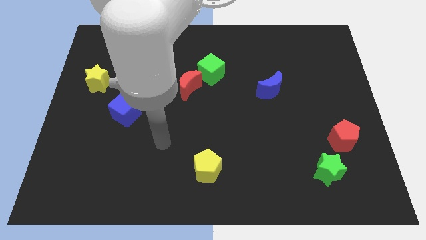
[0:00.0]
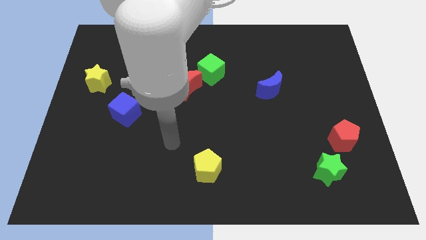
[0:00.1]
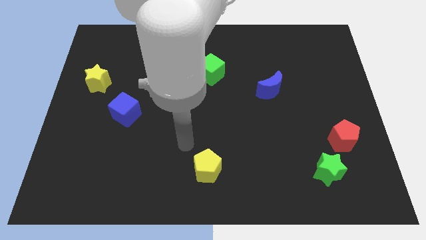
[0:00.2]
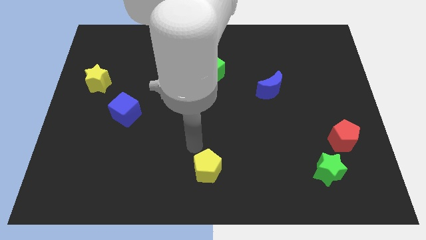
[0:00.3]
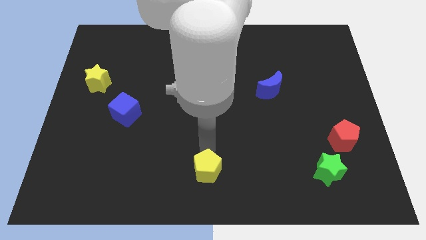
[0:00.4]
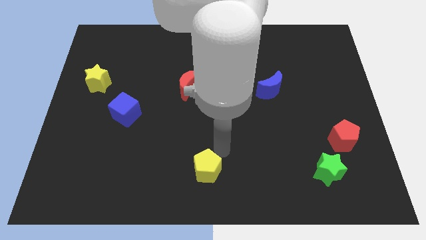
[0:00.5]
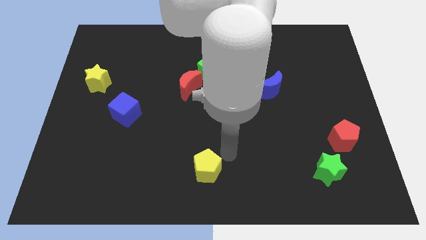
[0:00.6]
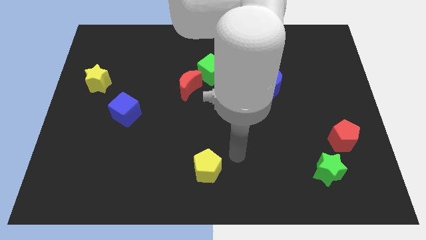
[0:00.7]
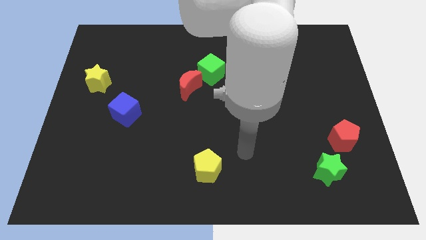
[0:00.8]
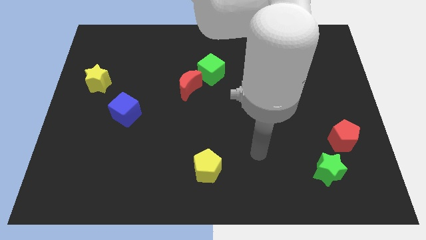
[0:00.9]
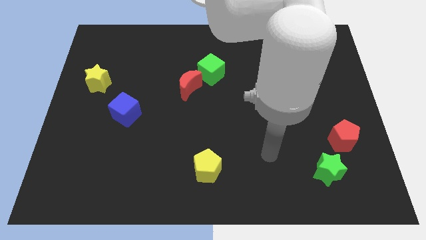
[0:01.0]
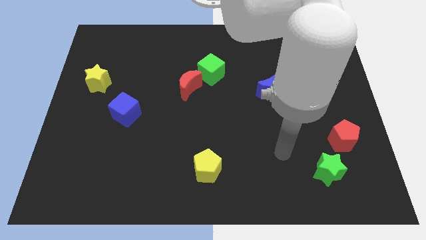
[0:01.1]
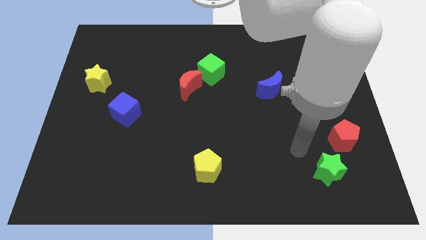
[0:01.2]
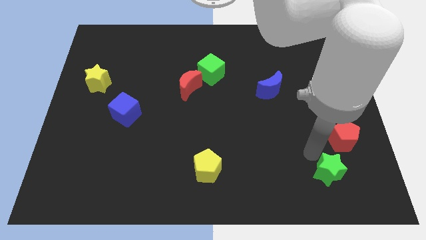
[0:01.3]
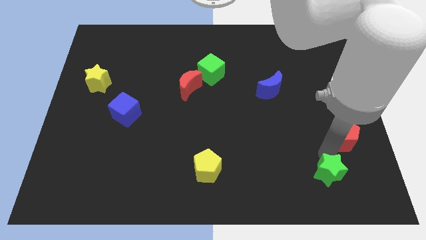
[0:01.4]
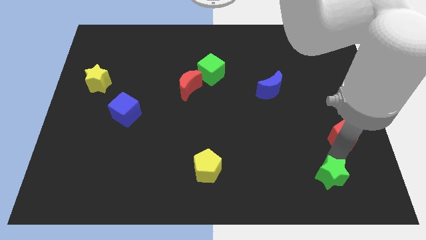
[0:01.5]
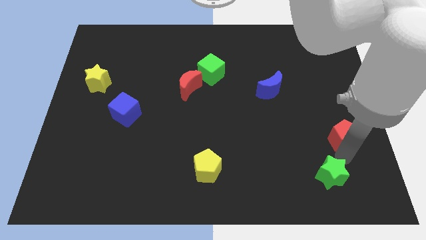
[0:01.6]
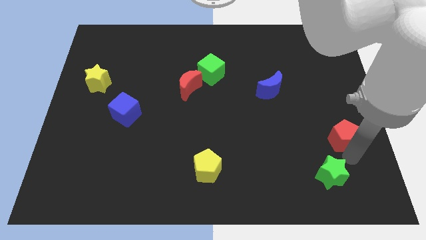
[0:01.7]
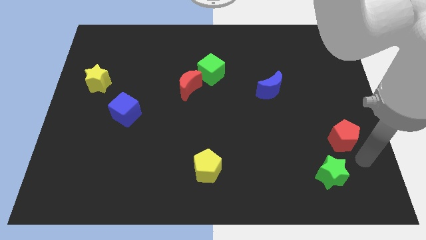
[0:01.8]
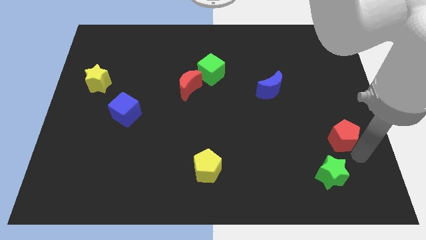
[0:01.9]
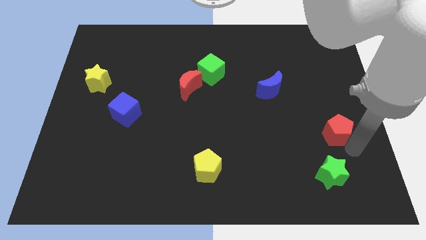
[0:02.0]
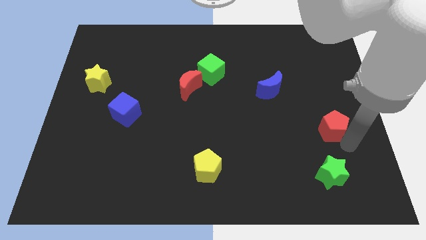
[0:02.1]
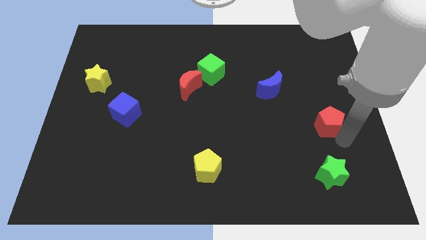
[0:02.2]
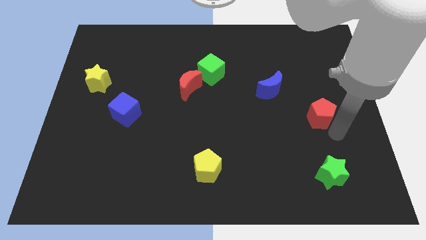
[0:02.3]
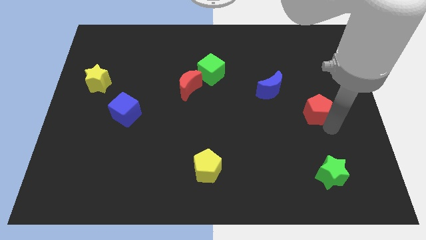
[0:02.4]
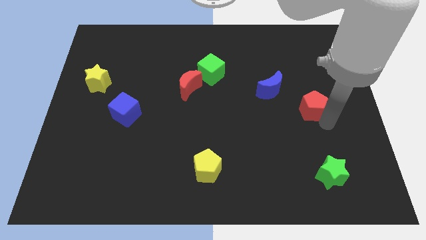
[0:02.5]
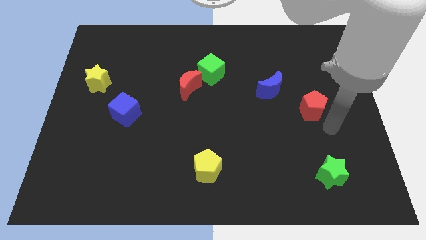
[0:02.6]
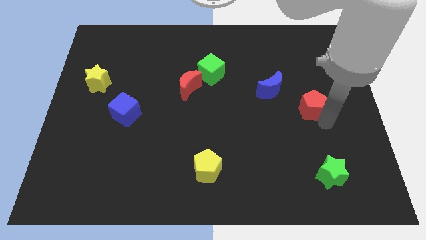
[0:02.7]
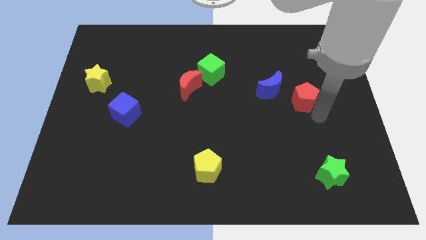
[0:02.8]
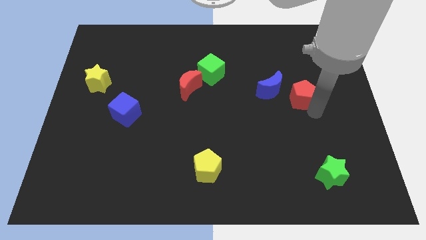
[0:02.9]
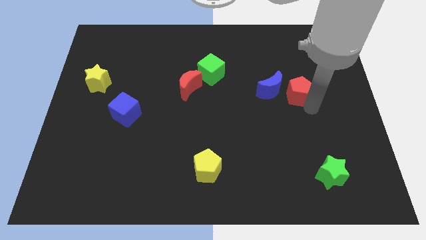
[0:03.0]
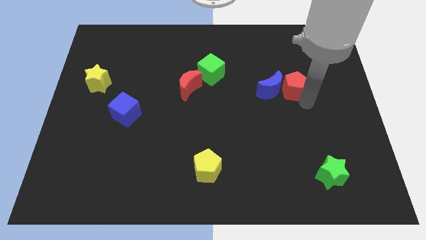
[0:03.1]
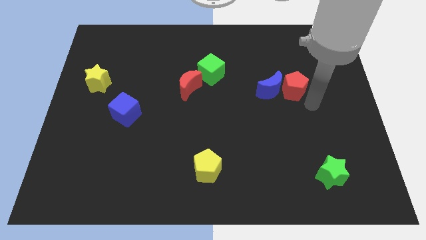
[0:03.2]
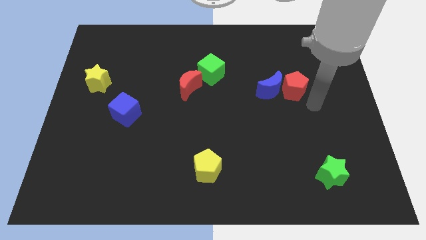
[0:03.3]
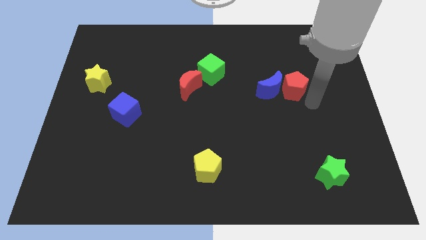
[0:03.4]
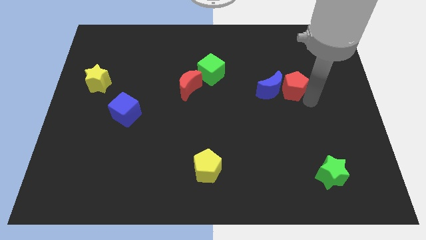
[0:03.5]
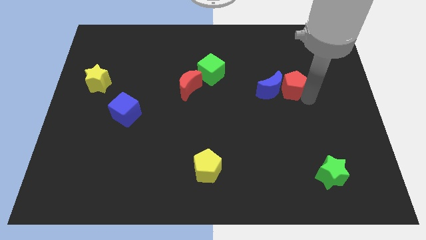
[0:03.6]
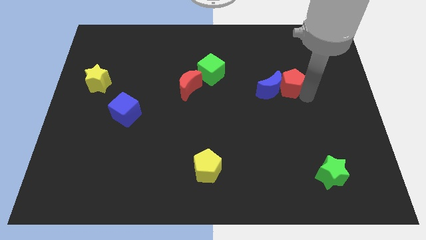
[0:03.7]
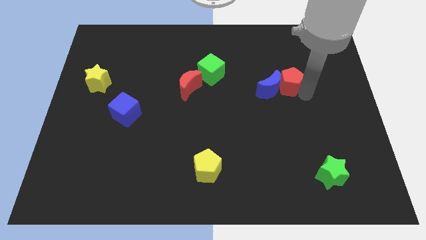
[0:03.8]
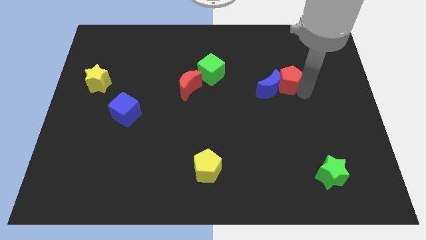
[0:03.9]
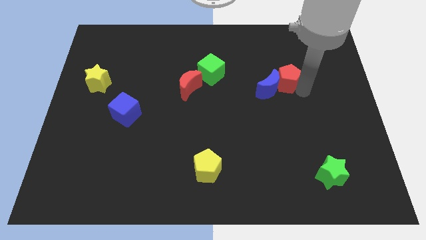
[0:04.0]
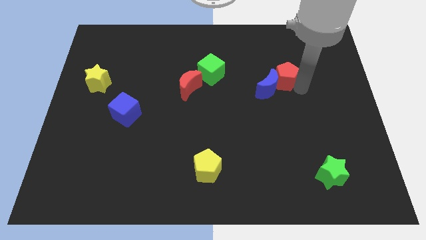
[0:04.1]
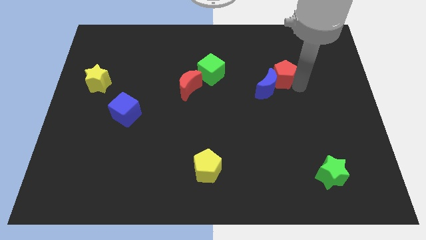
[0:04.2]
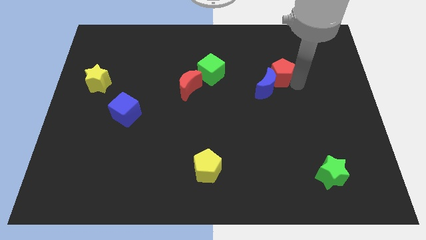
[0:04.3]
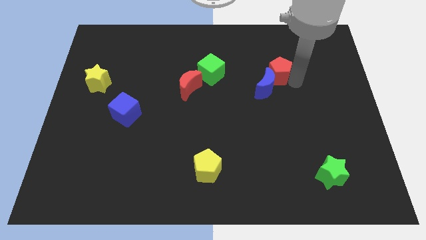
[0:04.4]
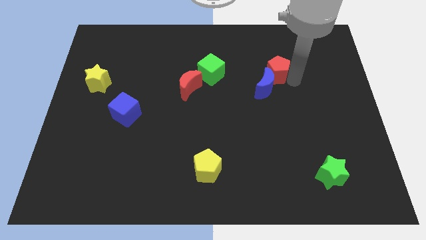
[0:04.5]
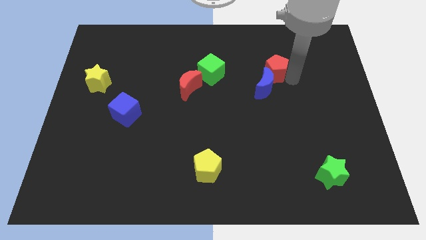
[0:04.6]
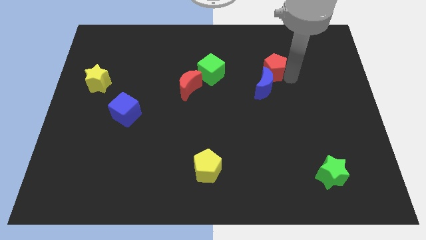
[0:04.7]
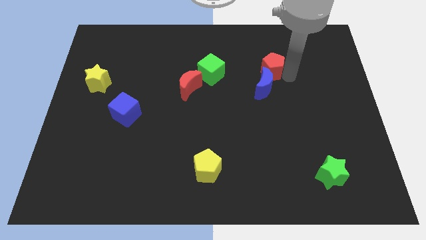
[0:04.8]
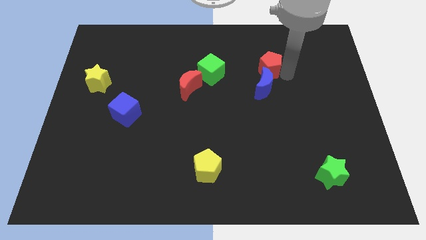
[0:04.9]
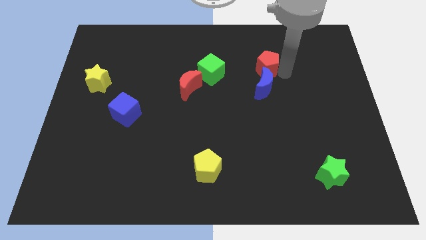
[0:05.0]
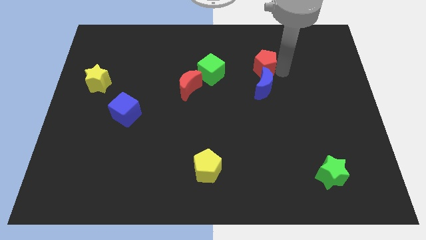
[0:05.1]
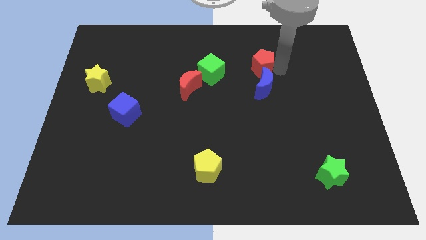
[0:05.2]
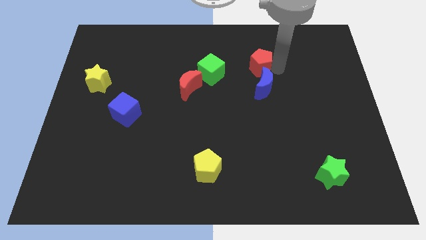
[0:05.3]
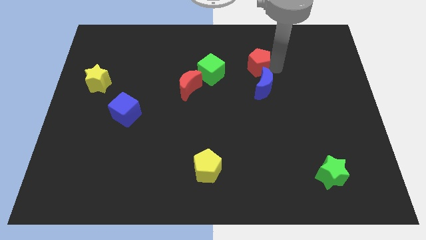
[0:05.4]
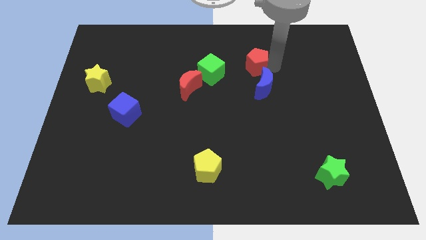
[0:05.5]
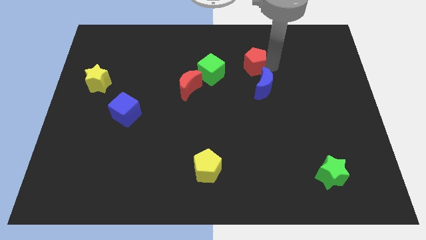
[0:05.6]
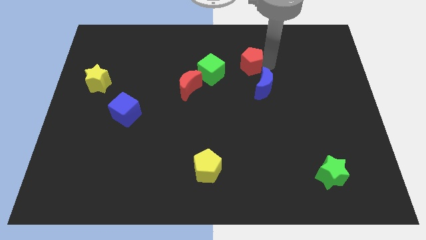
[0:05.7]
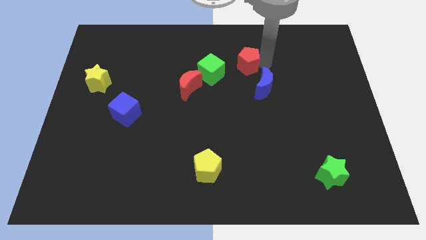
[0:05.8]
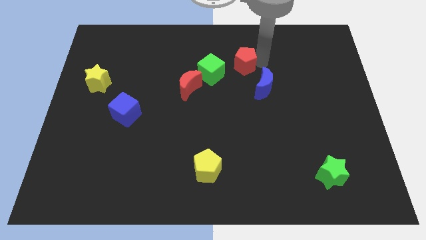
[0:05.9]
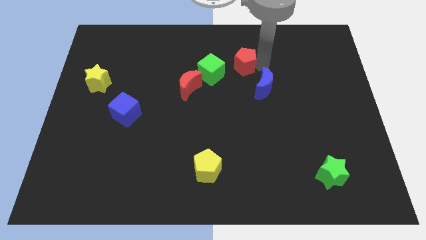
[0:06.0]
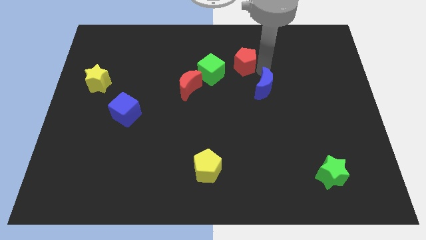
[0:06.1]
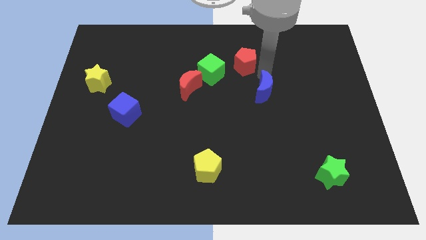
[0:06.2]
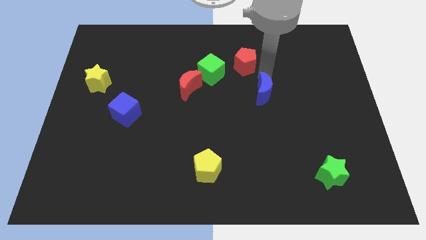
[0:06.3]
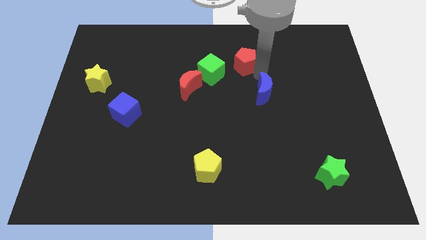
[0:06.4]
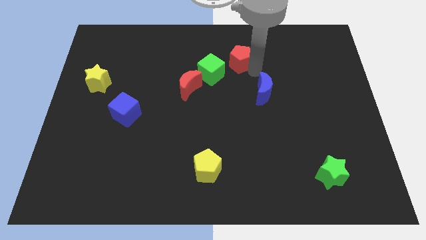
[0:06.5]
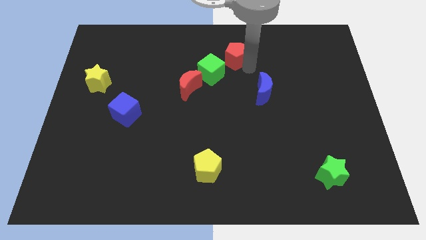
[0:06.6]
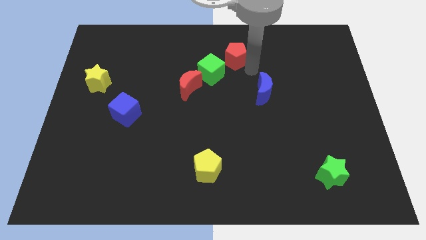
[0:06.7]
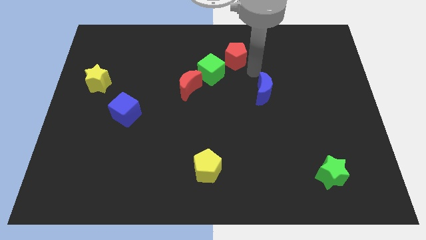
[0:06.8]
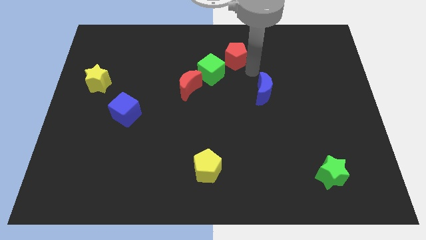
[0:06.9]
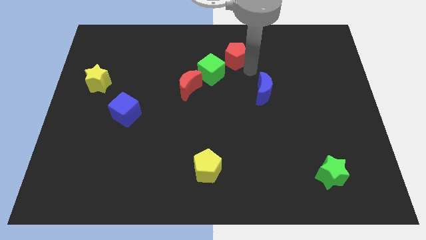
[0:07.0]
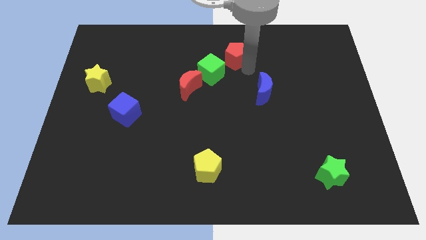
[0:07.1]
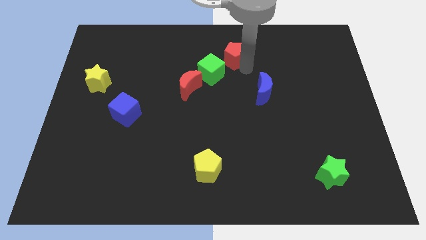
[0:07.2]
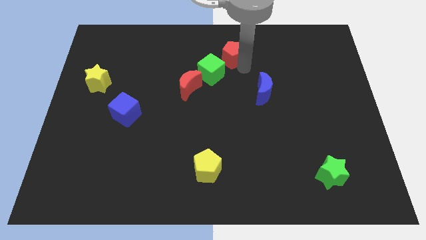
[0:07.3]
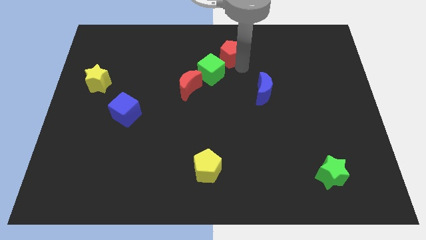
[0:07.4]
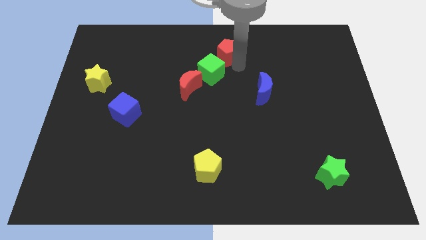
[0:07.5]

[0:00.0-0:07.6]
move the red pentagon to the top
